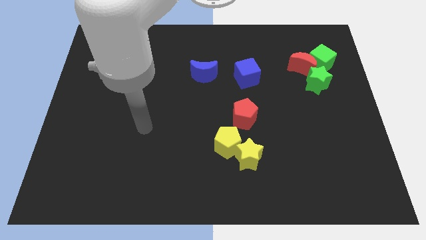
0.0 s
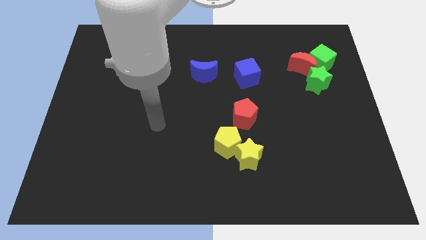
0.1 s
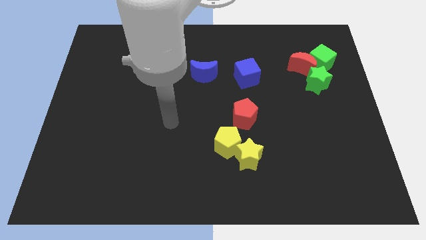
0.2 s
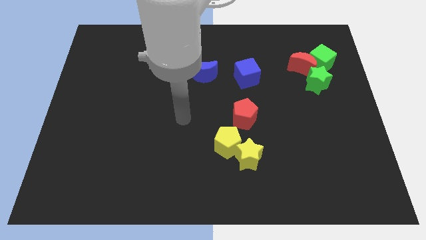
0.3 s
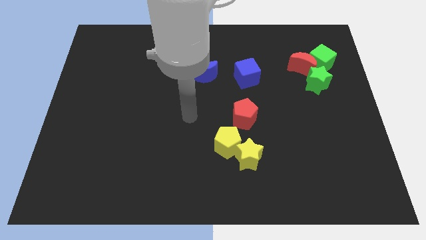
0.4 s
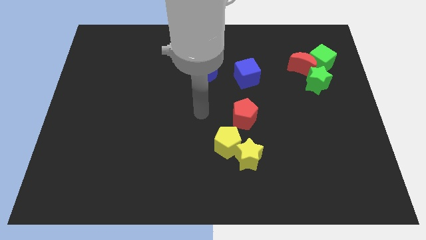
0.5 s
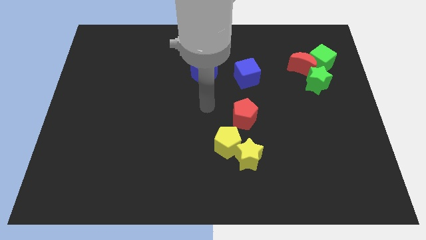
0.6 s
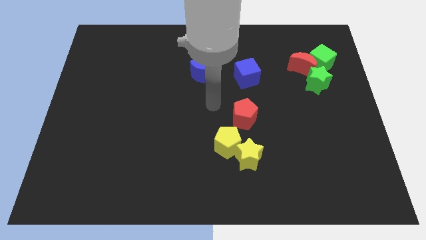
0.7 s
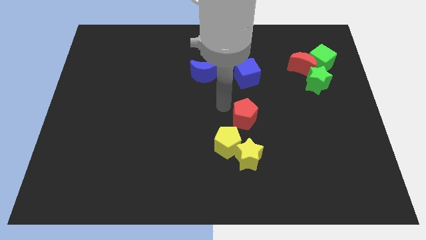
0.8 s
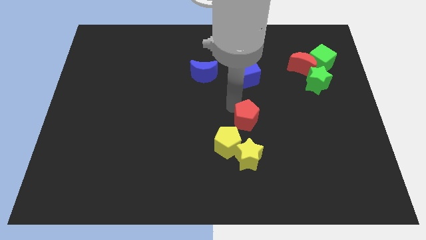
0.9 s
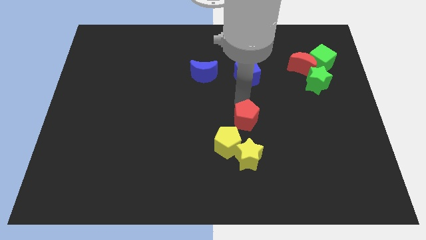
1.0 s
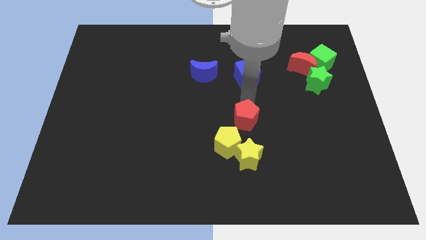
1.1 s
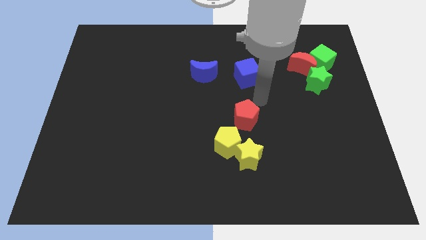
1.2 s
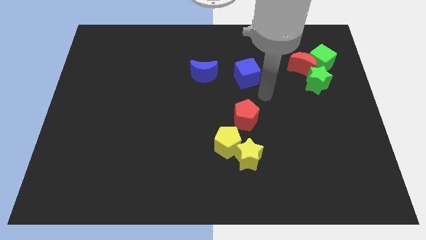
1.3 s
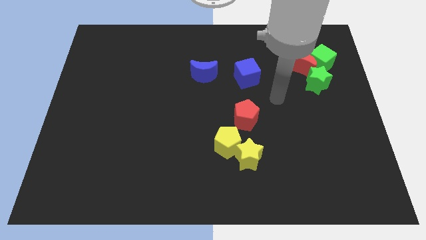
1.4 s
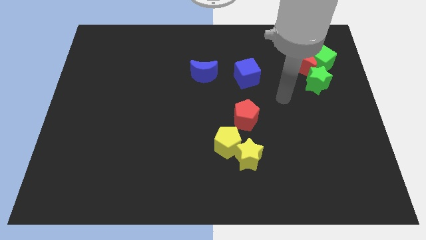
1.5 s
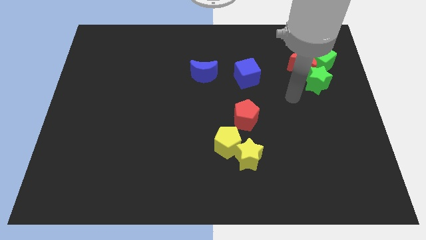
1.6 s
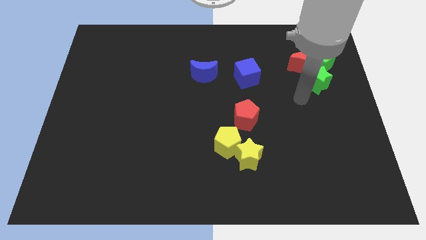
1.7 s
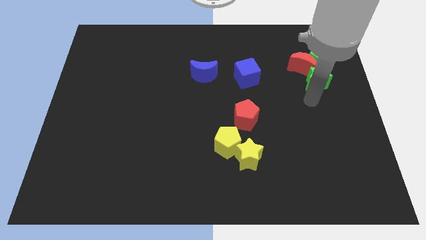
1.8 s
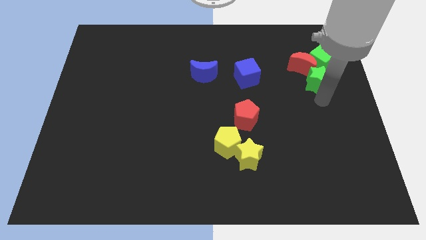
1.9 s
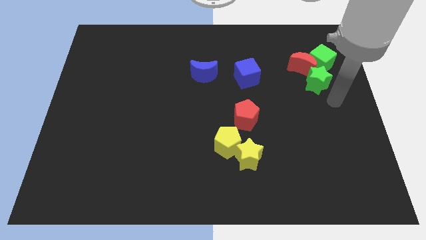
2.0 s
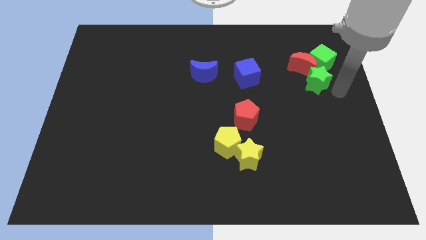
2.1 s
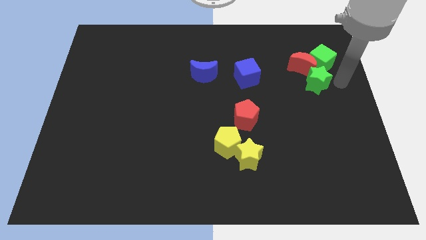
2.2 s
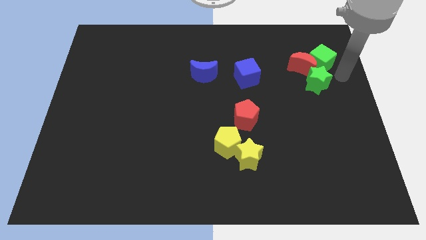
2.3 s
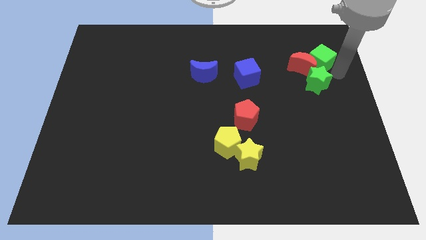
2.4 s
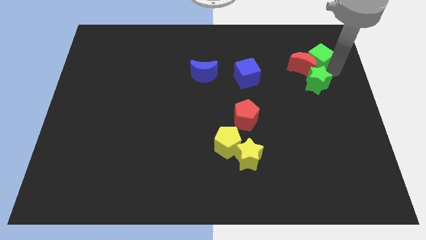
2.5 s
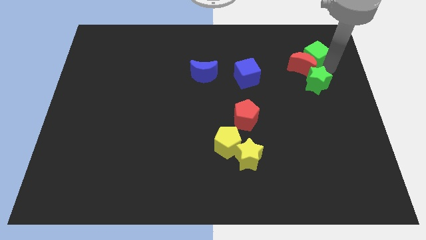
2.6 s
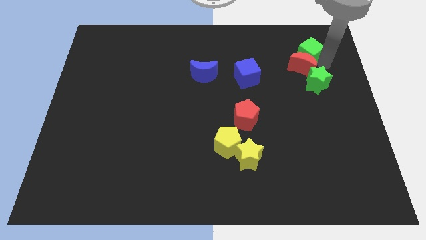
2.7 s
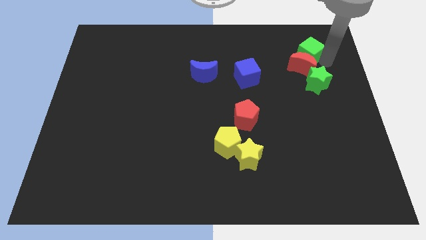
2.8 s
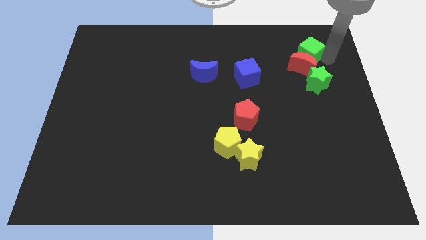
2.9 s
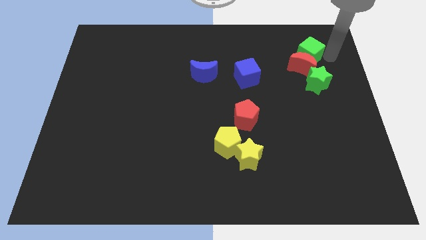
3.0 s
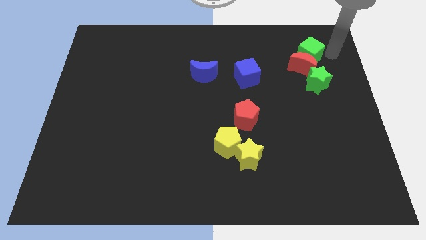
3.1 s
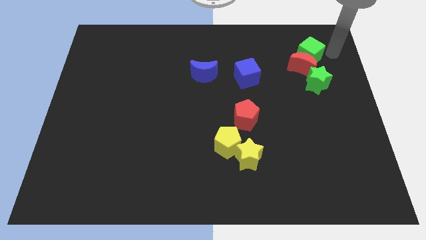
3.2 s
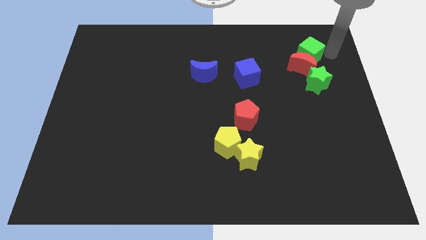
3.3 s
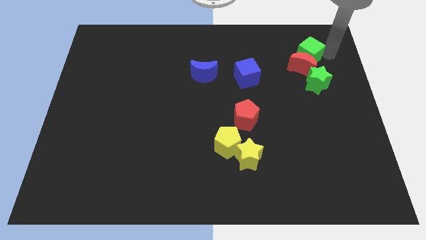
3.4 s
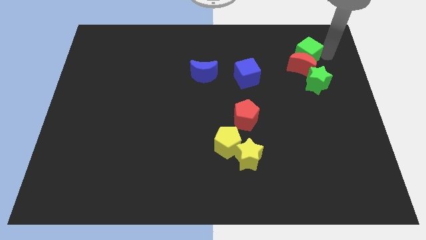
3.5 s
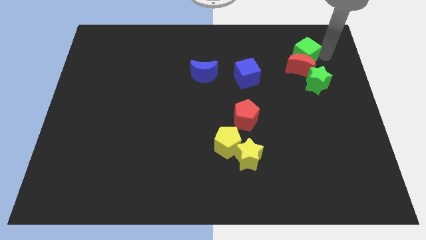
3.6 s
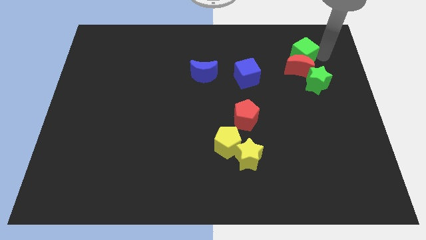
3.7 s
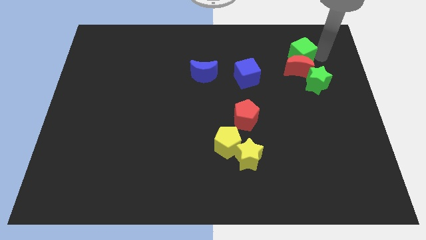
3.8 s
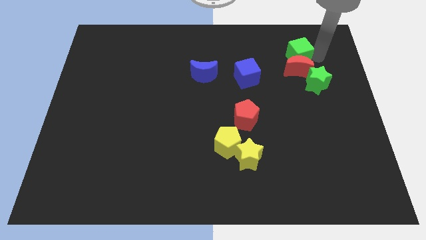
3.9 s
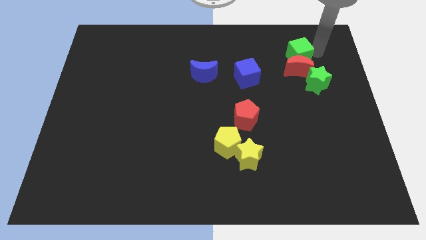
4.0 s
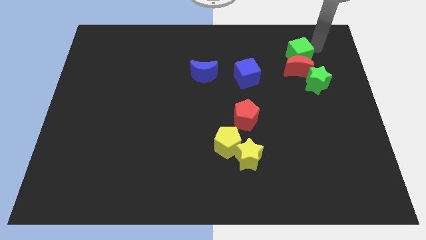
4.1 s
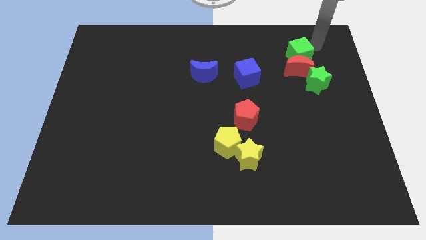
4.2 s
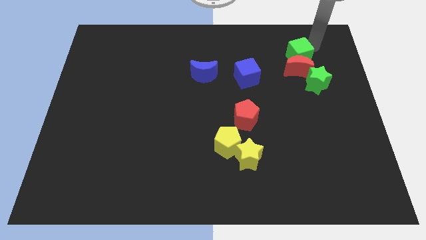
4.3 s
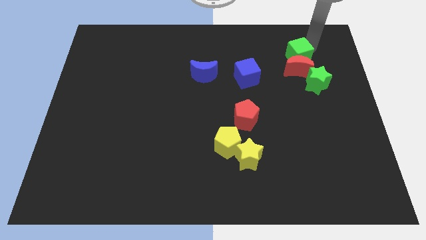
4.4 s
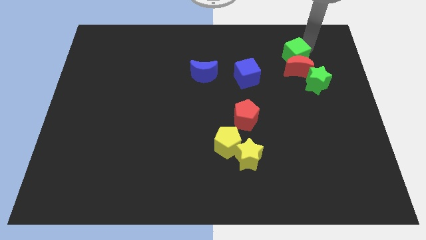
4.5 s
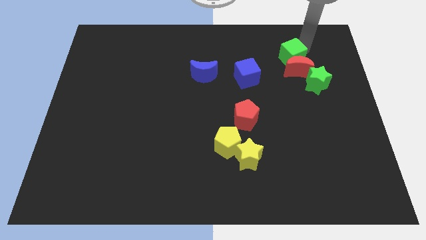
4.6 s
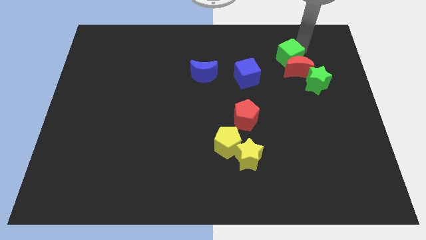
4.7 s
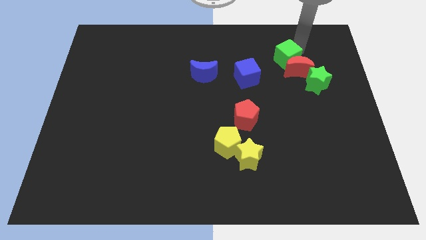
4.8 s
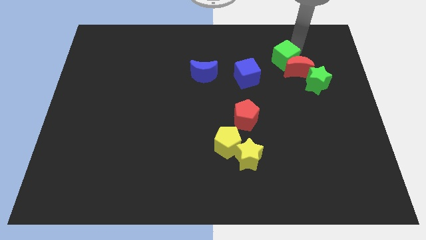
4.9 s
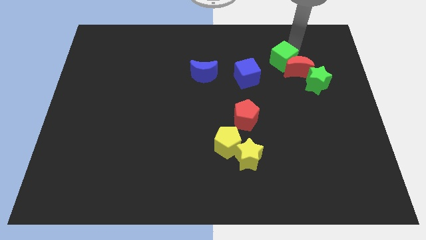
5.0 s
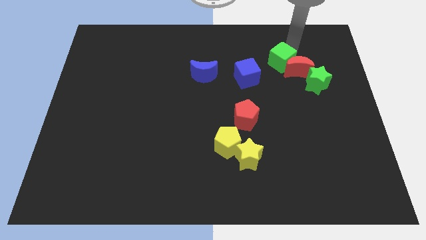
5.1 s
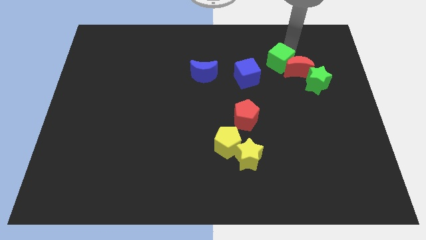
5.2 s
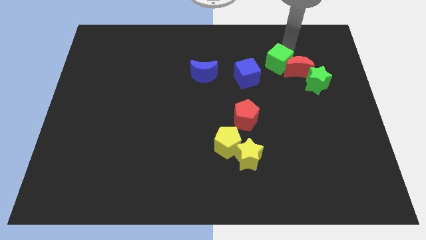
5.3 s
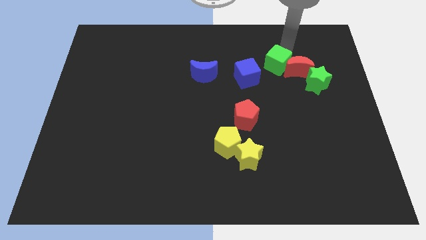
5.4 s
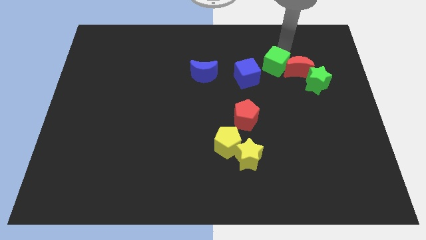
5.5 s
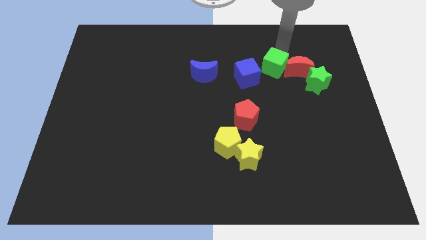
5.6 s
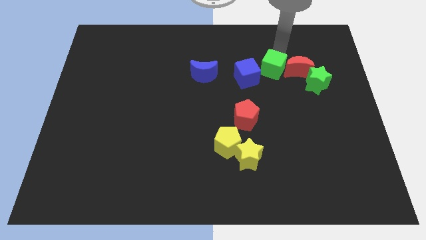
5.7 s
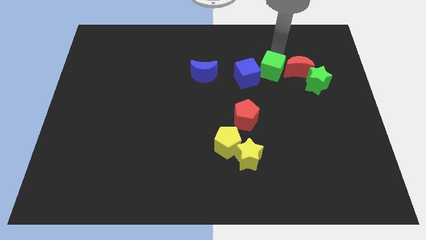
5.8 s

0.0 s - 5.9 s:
slide the green cube to the left side of the green star

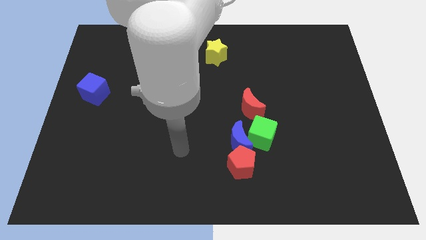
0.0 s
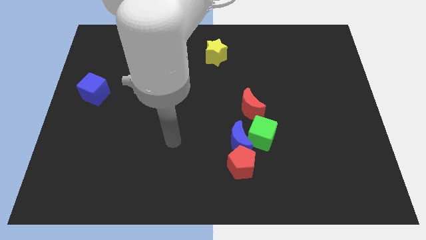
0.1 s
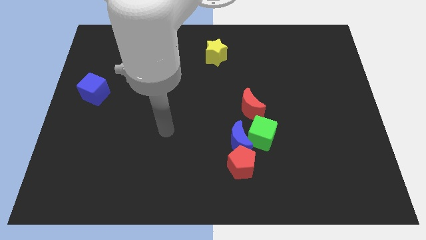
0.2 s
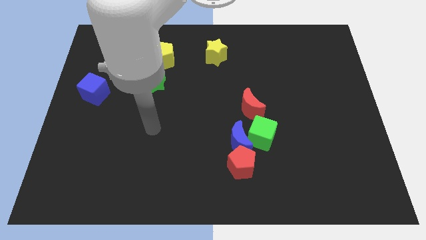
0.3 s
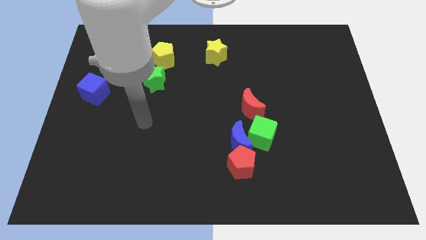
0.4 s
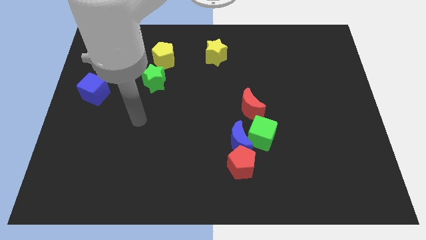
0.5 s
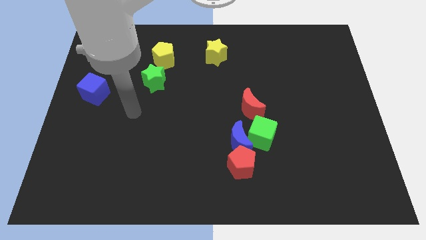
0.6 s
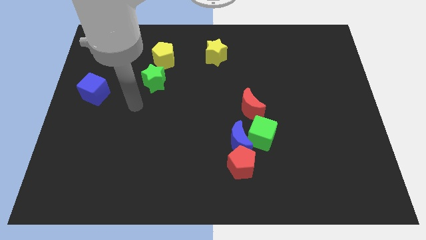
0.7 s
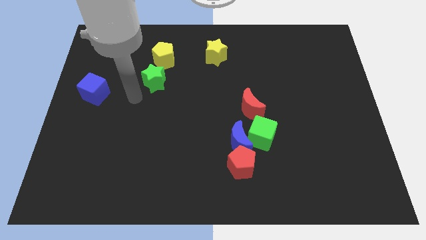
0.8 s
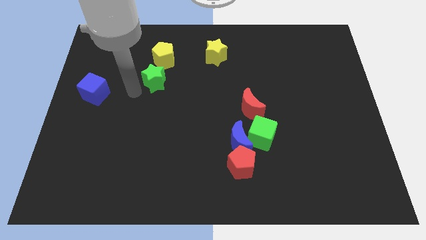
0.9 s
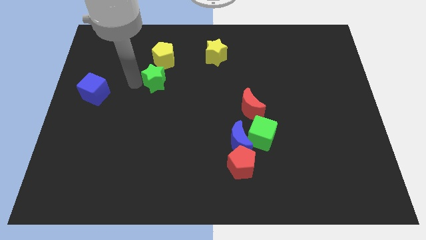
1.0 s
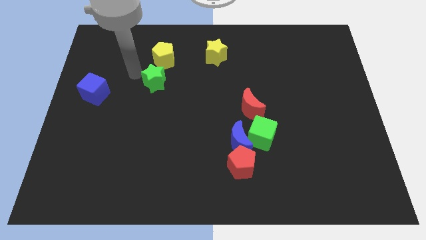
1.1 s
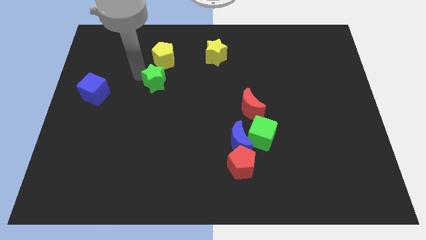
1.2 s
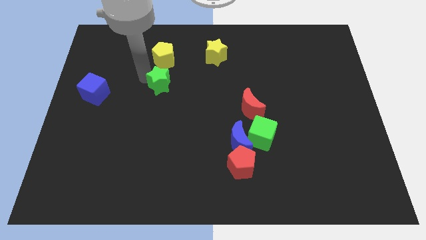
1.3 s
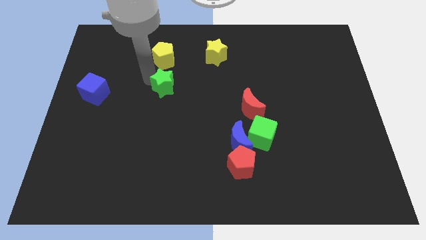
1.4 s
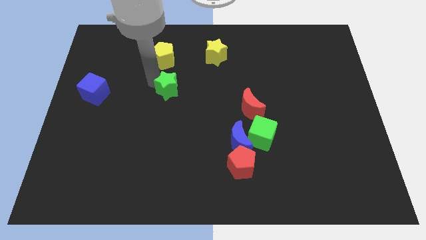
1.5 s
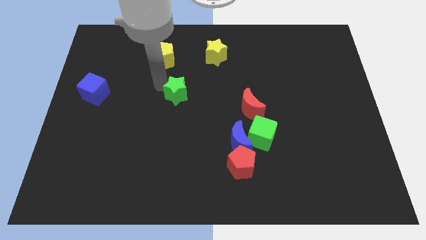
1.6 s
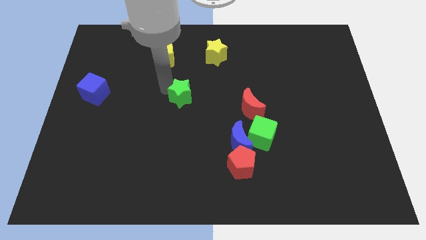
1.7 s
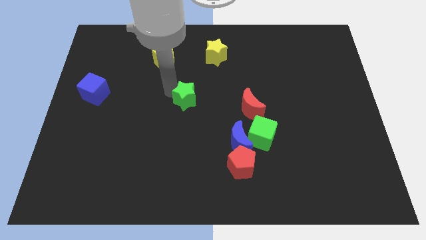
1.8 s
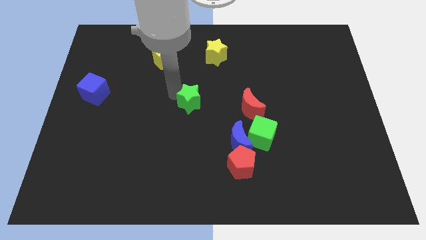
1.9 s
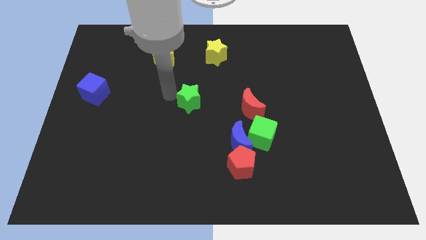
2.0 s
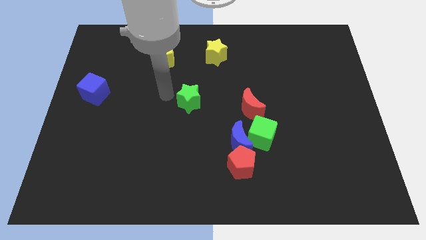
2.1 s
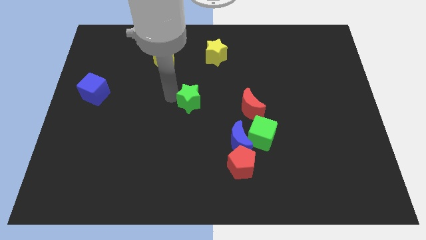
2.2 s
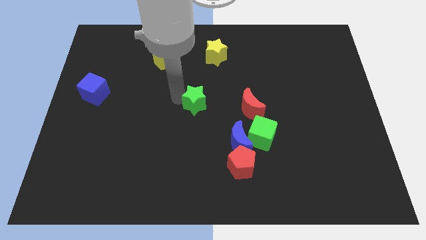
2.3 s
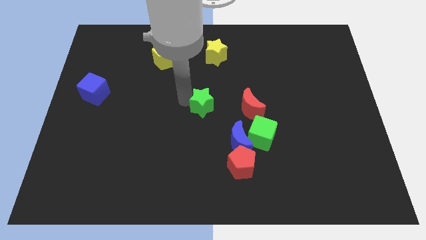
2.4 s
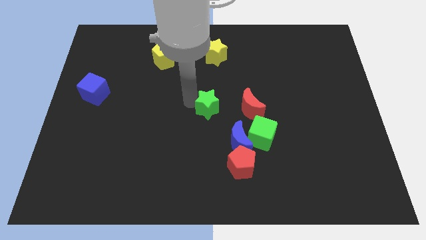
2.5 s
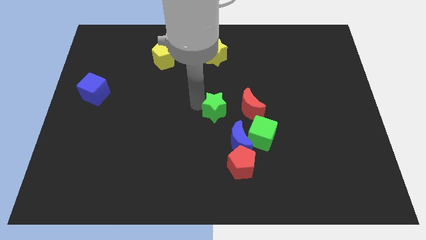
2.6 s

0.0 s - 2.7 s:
slide the green star to the top left of the green cube
